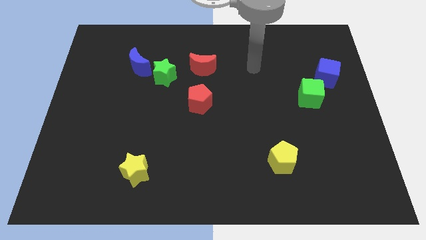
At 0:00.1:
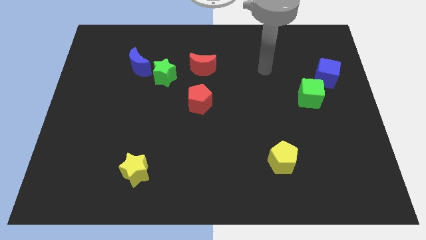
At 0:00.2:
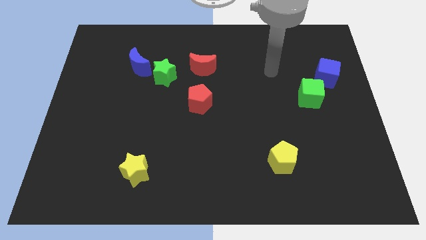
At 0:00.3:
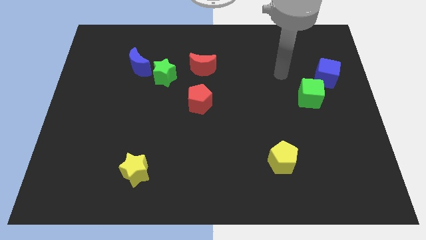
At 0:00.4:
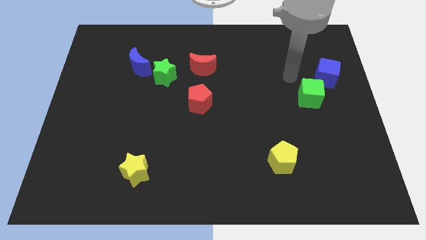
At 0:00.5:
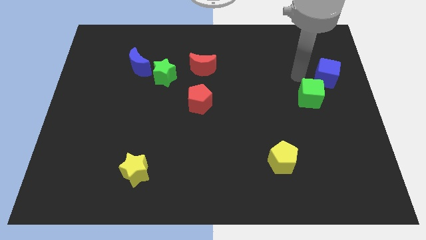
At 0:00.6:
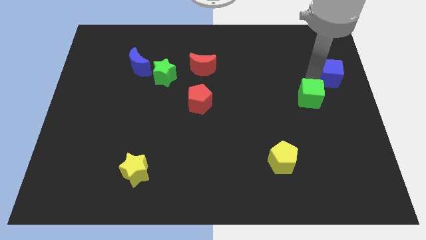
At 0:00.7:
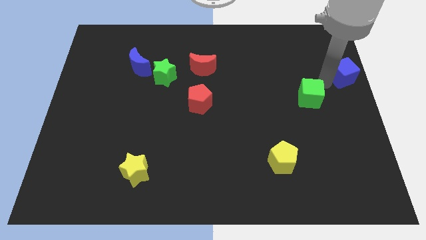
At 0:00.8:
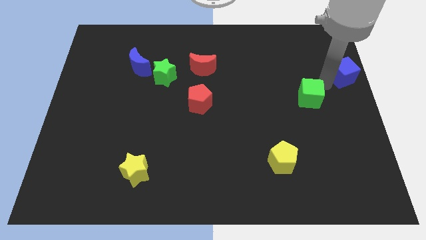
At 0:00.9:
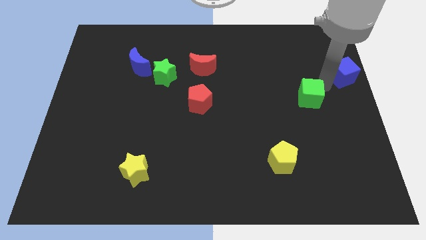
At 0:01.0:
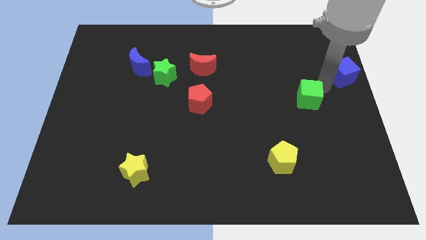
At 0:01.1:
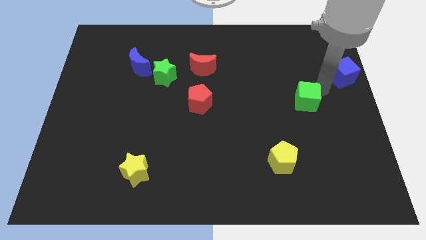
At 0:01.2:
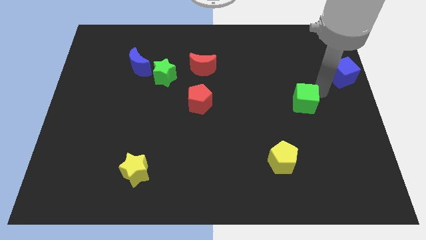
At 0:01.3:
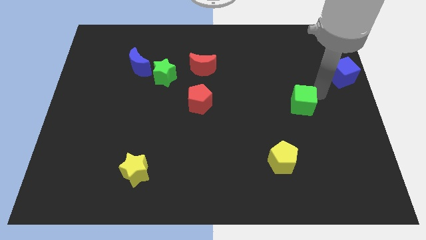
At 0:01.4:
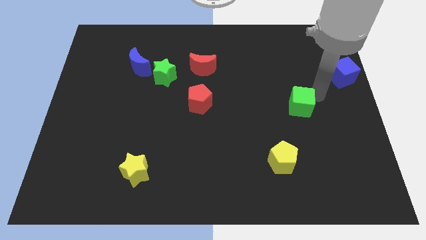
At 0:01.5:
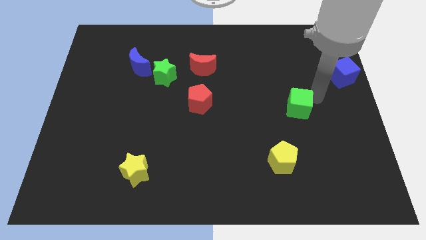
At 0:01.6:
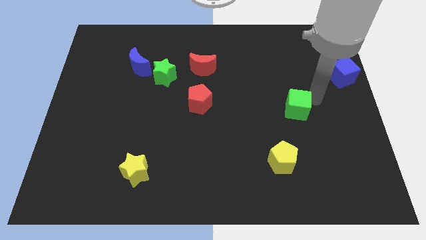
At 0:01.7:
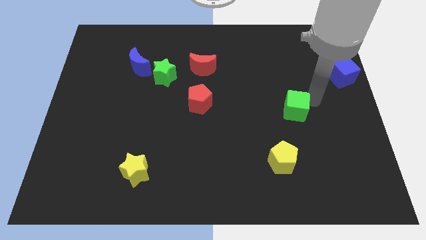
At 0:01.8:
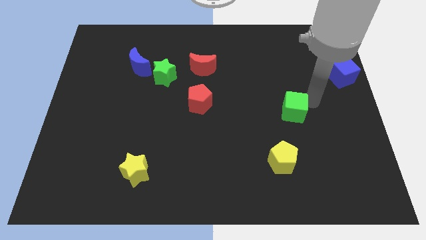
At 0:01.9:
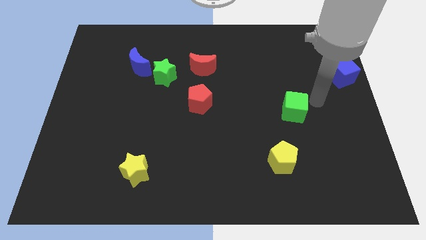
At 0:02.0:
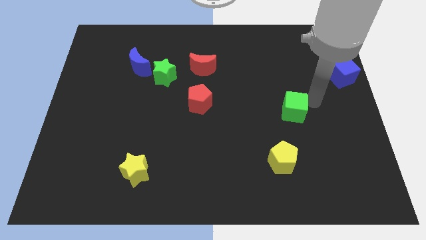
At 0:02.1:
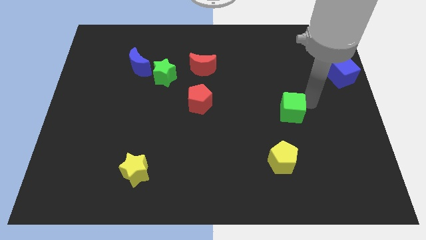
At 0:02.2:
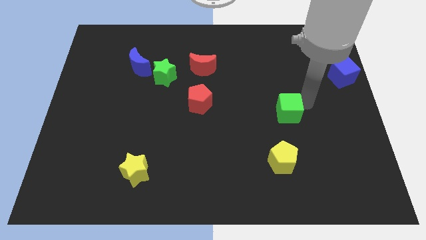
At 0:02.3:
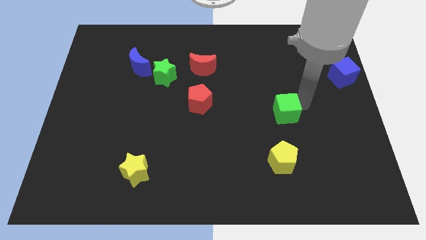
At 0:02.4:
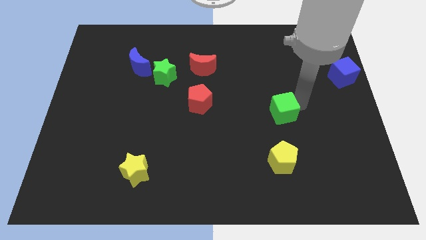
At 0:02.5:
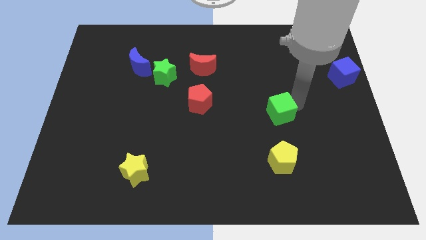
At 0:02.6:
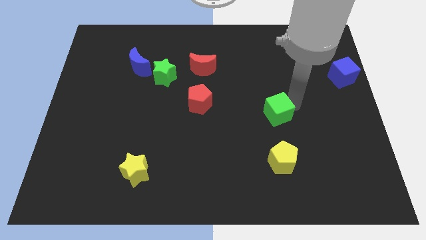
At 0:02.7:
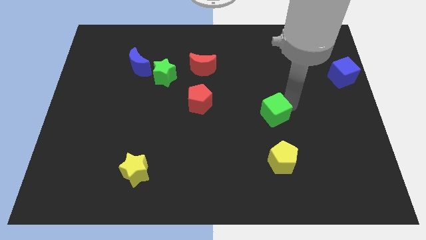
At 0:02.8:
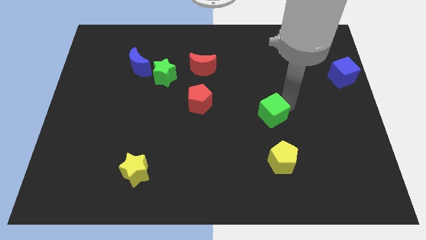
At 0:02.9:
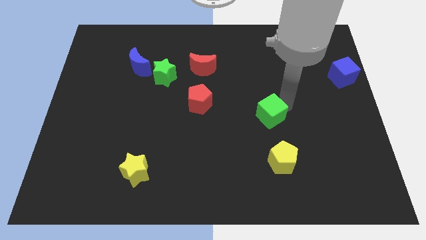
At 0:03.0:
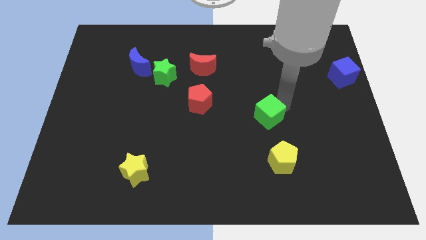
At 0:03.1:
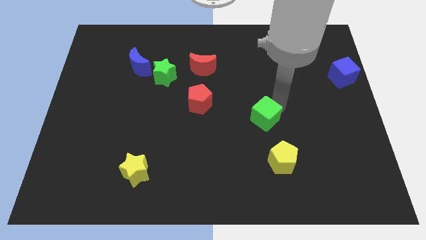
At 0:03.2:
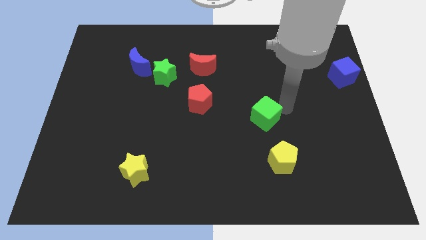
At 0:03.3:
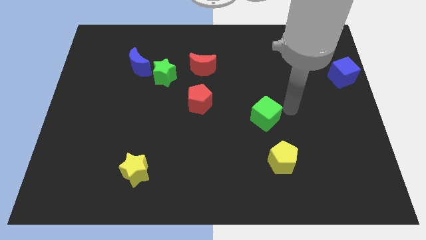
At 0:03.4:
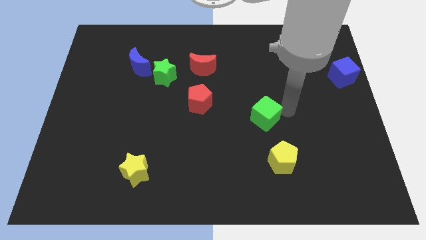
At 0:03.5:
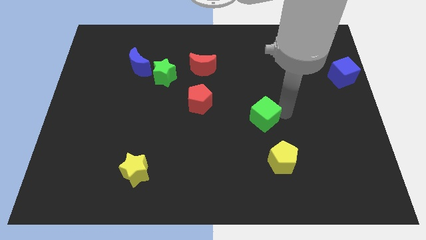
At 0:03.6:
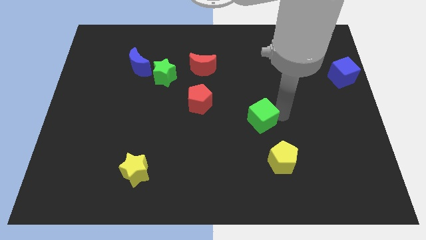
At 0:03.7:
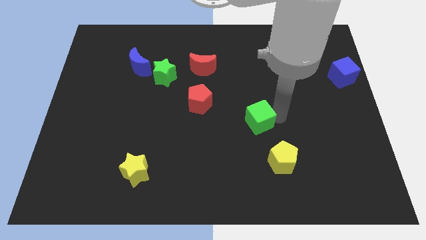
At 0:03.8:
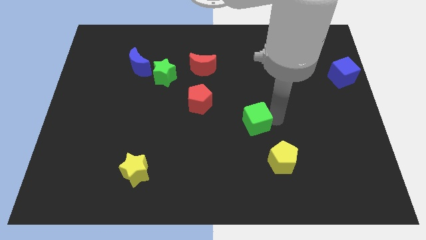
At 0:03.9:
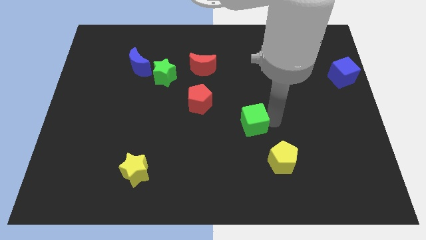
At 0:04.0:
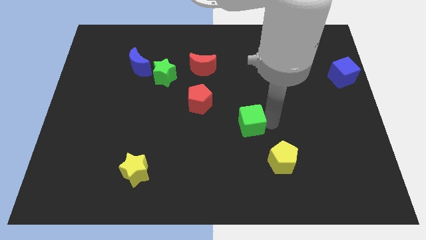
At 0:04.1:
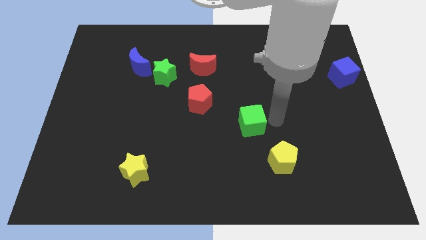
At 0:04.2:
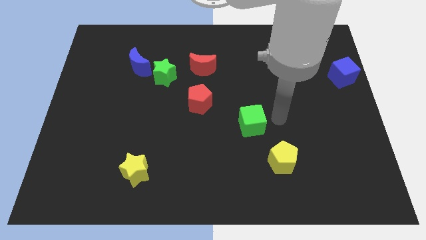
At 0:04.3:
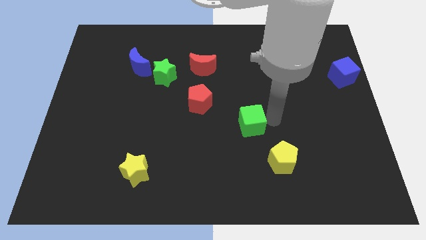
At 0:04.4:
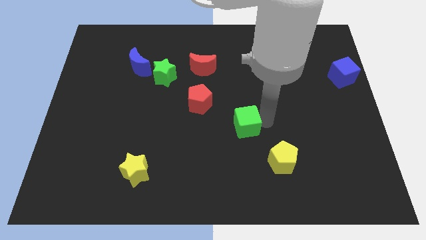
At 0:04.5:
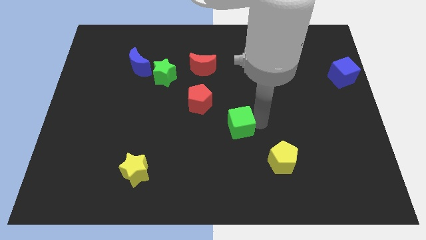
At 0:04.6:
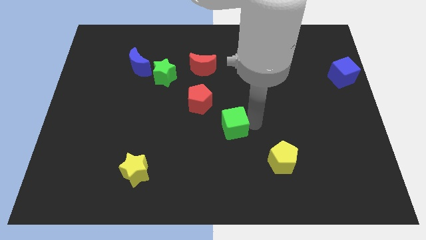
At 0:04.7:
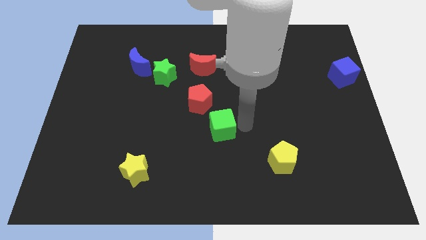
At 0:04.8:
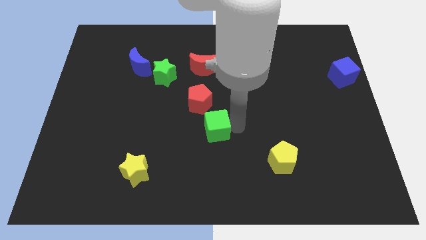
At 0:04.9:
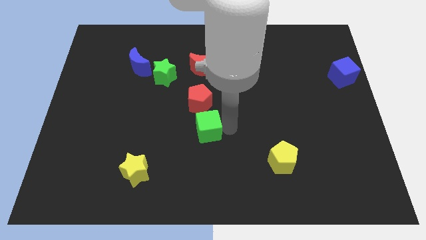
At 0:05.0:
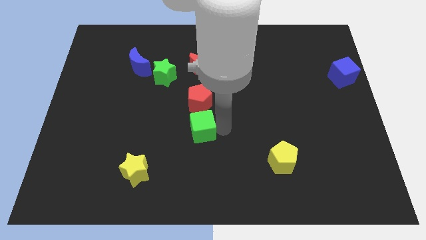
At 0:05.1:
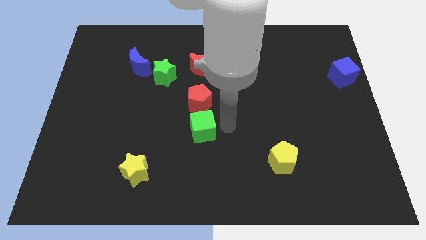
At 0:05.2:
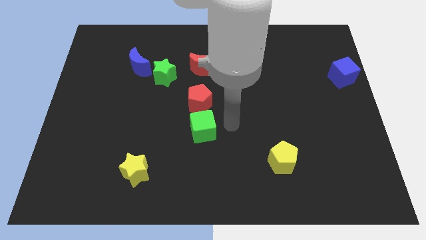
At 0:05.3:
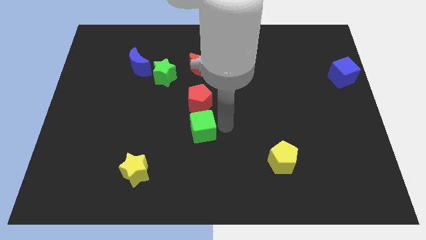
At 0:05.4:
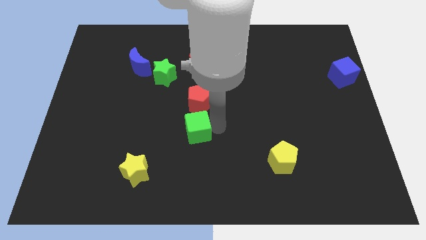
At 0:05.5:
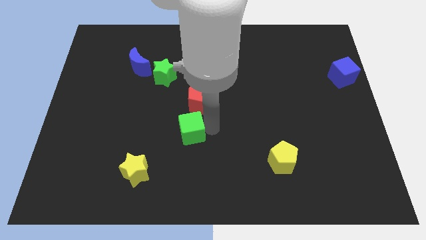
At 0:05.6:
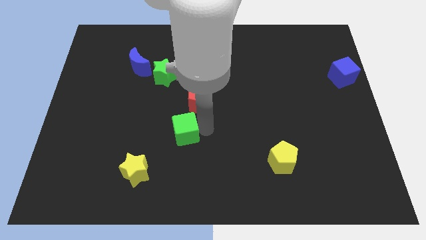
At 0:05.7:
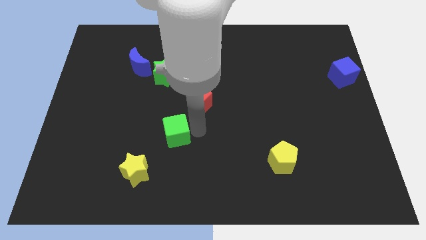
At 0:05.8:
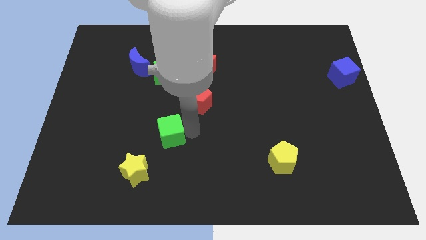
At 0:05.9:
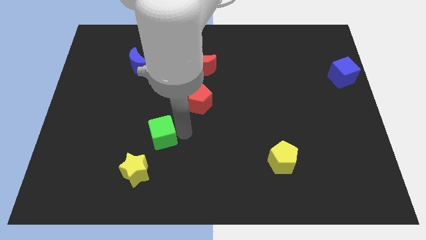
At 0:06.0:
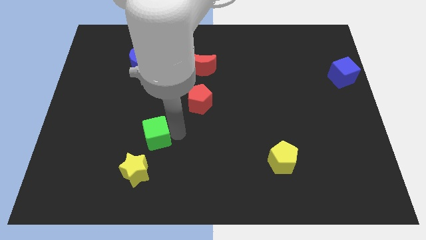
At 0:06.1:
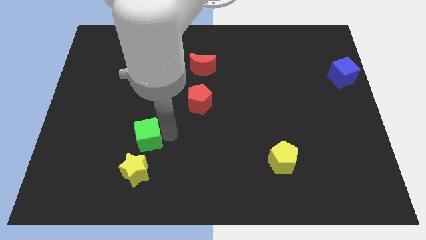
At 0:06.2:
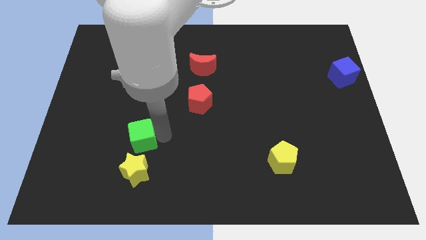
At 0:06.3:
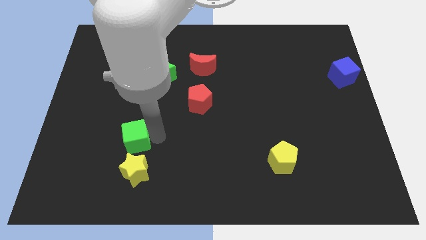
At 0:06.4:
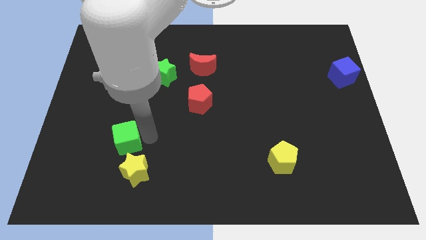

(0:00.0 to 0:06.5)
move the green cube to the top left side of the yellow star

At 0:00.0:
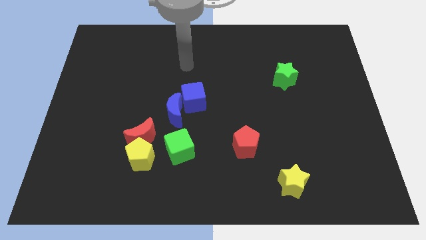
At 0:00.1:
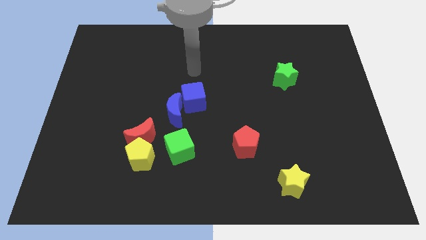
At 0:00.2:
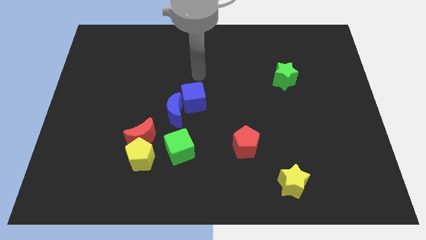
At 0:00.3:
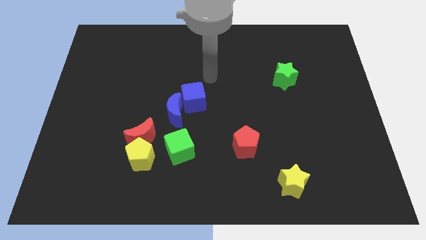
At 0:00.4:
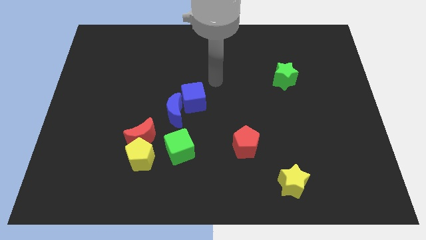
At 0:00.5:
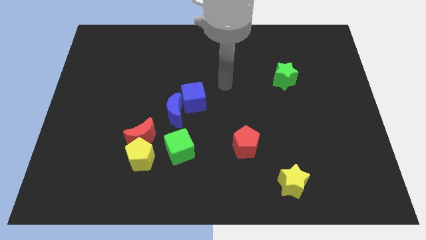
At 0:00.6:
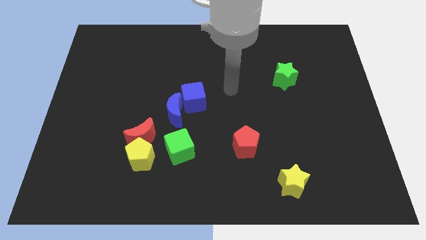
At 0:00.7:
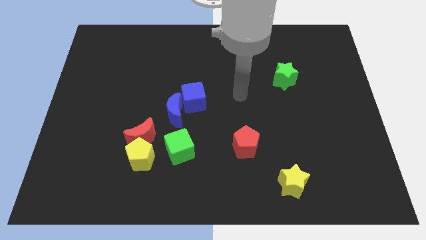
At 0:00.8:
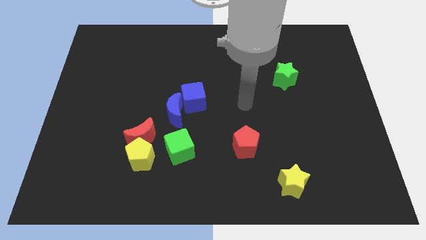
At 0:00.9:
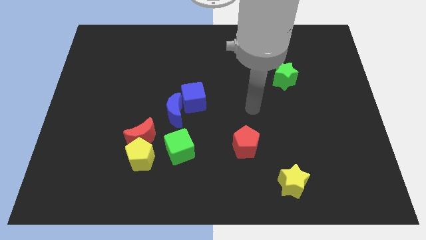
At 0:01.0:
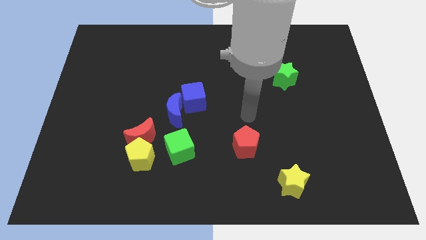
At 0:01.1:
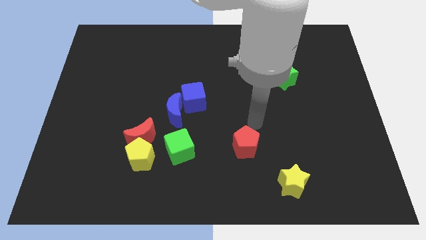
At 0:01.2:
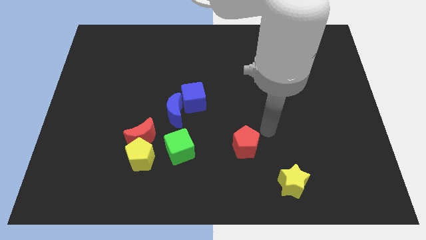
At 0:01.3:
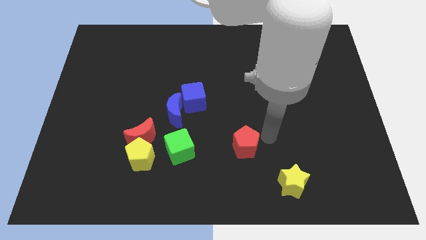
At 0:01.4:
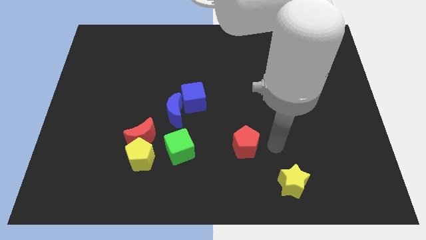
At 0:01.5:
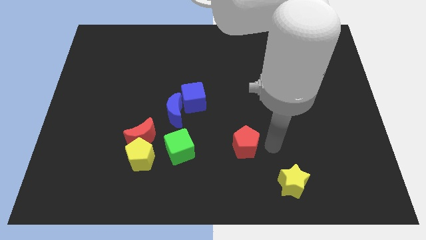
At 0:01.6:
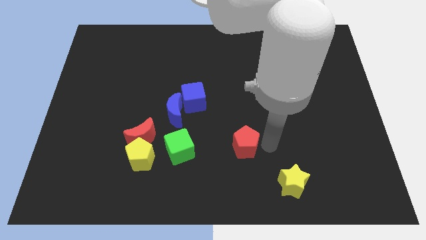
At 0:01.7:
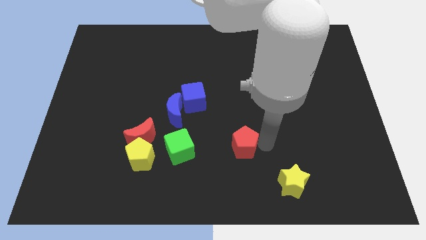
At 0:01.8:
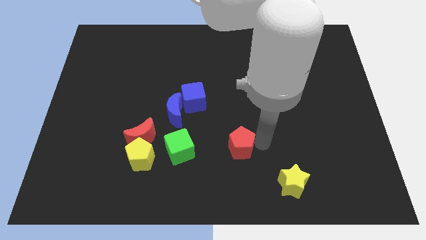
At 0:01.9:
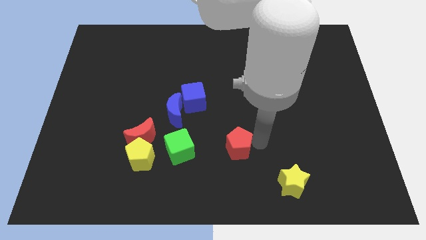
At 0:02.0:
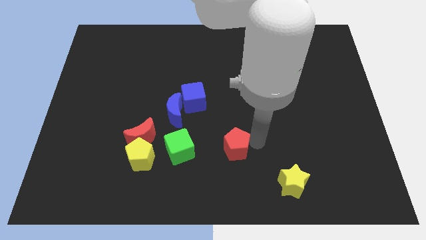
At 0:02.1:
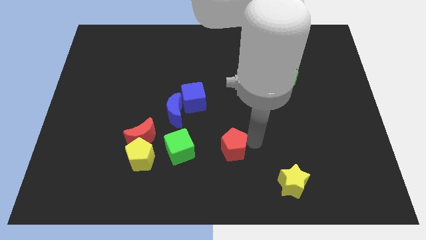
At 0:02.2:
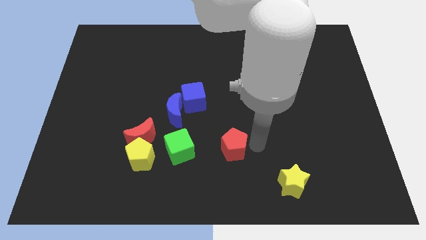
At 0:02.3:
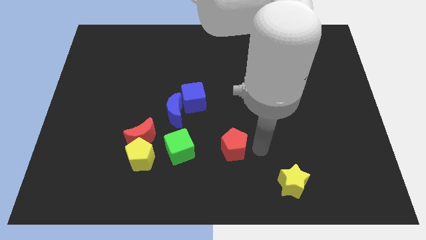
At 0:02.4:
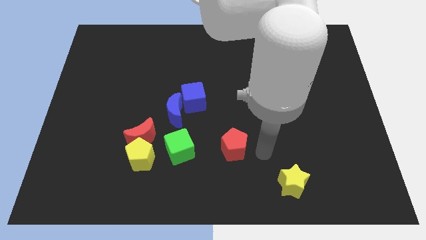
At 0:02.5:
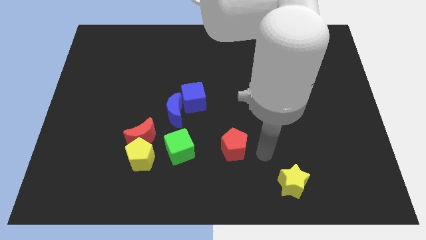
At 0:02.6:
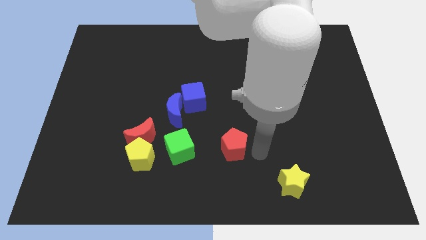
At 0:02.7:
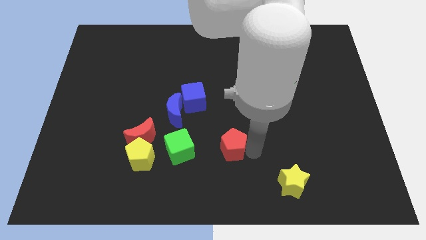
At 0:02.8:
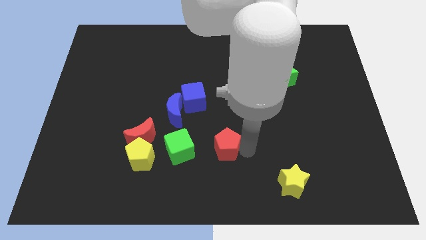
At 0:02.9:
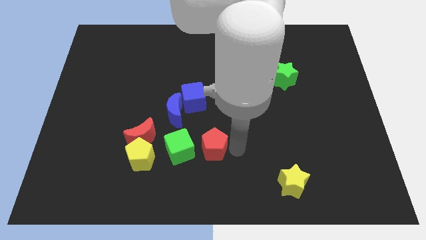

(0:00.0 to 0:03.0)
slide the red pentagon to the right of the red moon
